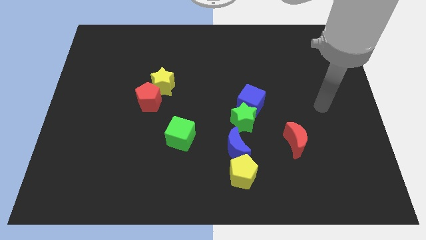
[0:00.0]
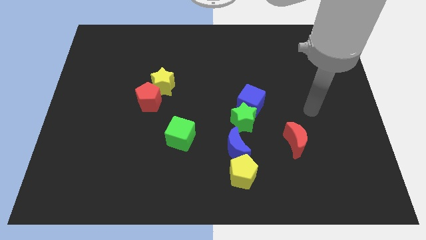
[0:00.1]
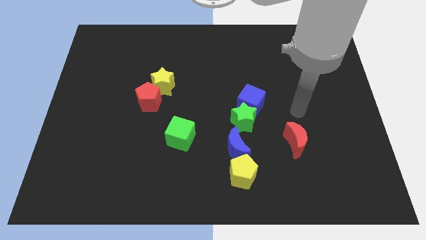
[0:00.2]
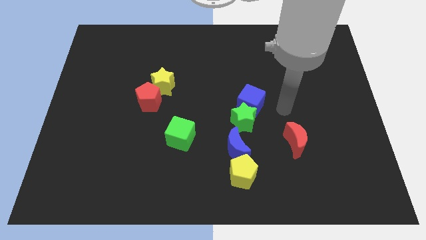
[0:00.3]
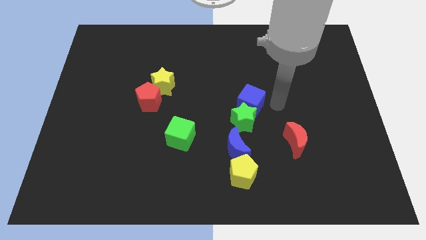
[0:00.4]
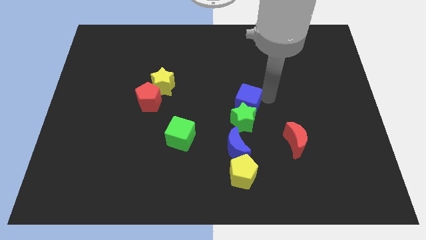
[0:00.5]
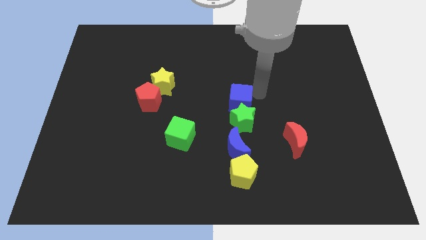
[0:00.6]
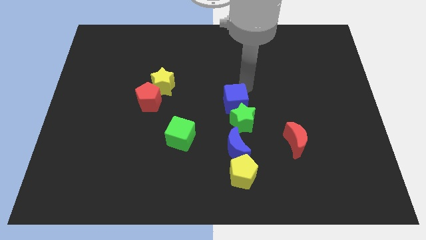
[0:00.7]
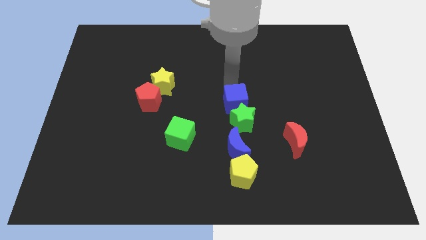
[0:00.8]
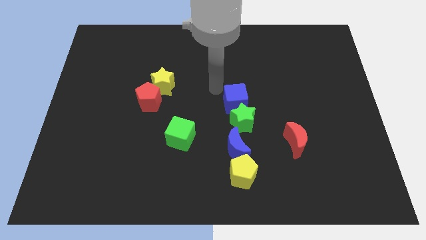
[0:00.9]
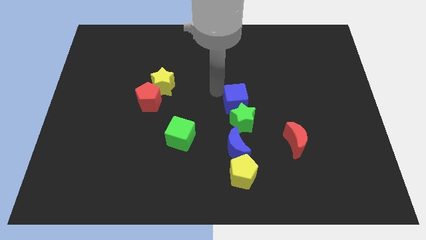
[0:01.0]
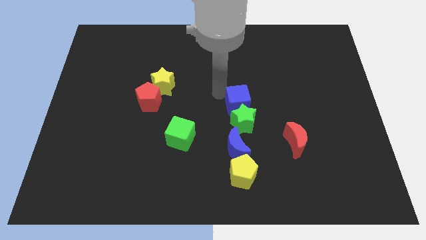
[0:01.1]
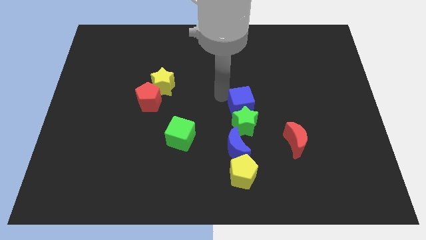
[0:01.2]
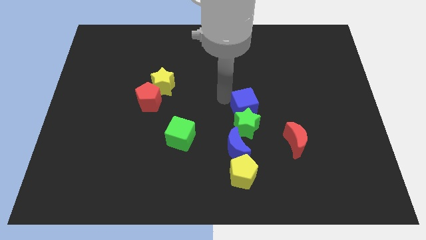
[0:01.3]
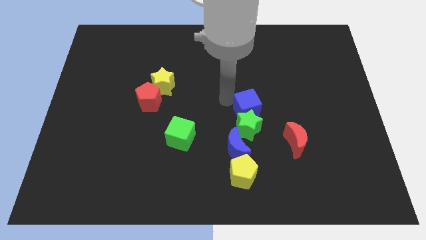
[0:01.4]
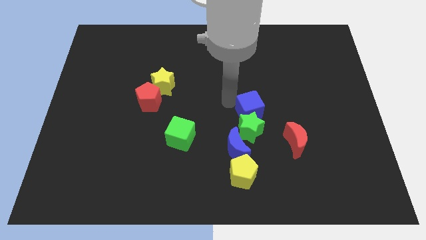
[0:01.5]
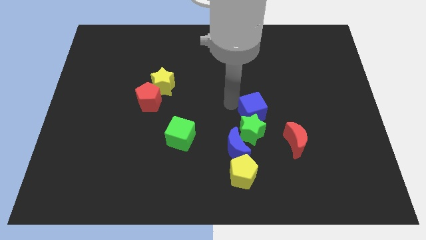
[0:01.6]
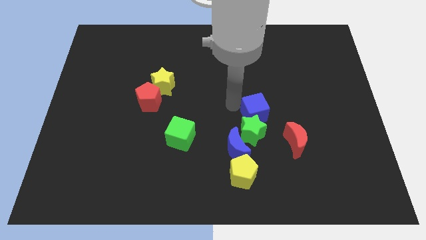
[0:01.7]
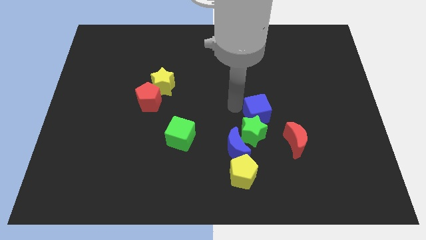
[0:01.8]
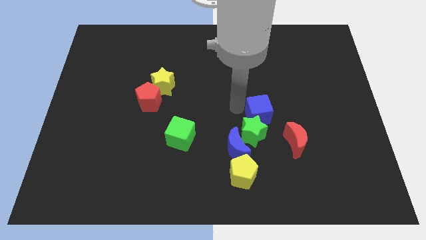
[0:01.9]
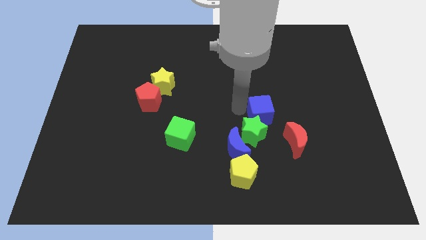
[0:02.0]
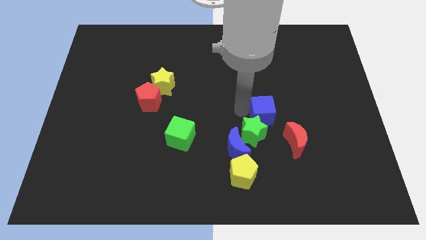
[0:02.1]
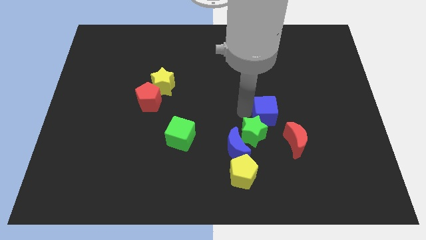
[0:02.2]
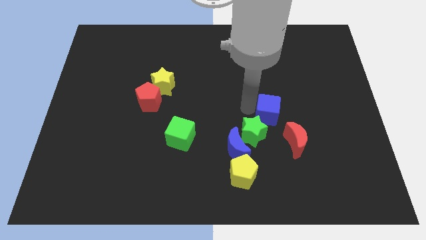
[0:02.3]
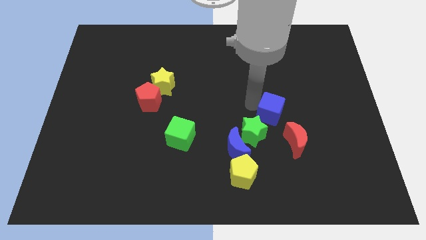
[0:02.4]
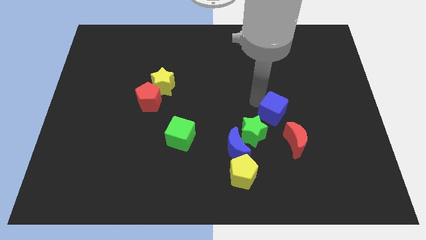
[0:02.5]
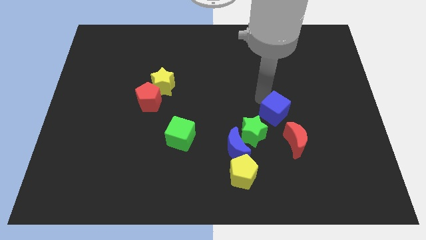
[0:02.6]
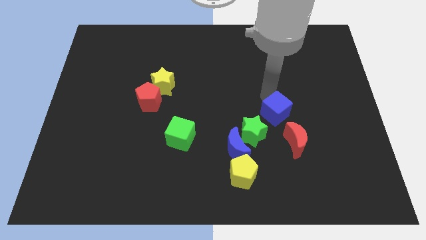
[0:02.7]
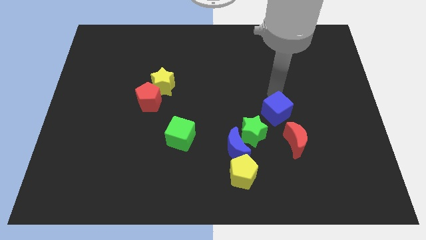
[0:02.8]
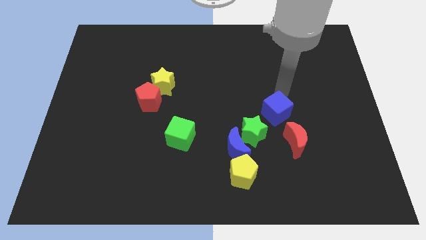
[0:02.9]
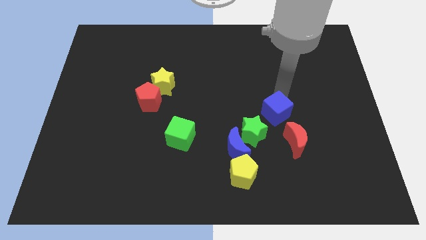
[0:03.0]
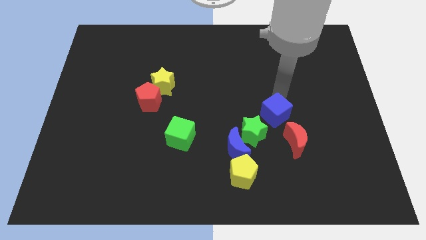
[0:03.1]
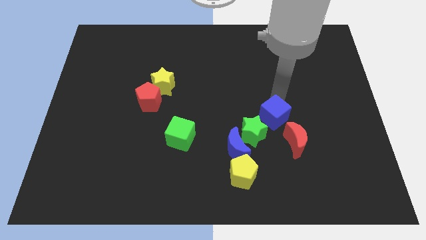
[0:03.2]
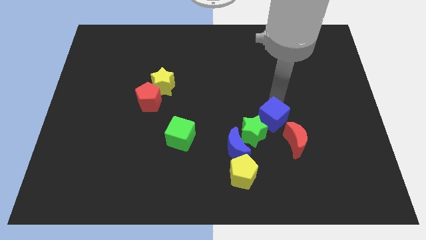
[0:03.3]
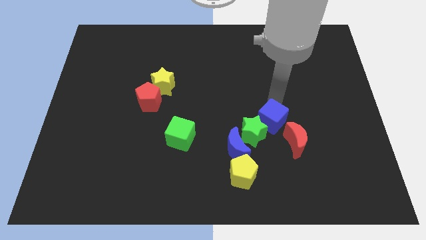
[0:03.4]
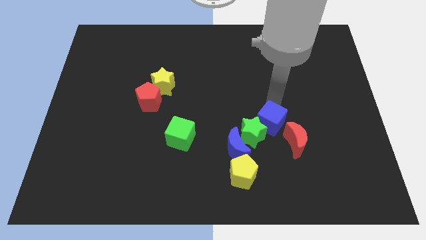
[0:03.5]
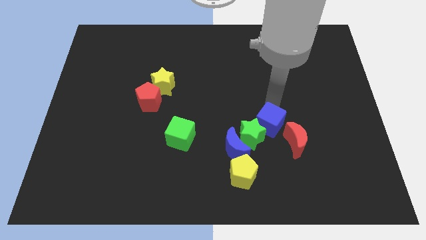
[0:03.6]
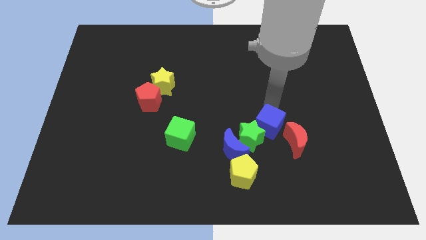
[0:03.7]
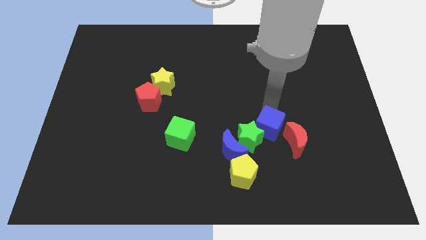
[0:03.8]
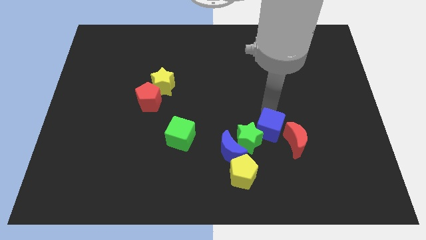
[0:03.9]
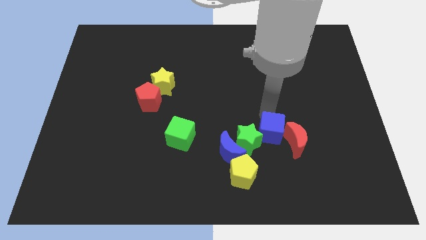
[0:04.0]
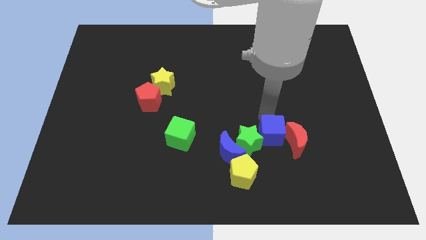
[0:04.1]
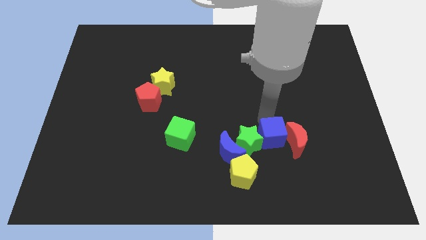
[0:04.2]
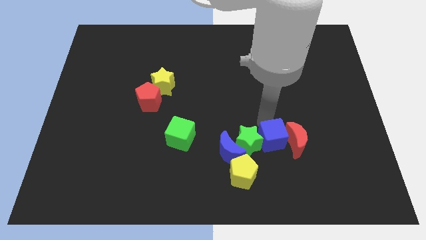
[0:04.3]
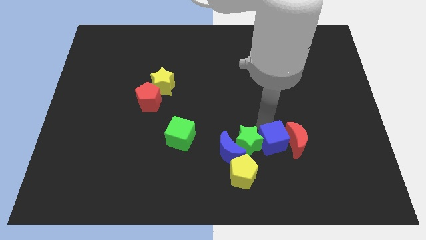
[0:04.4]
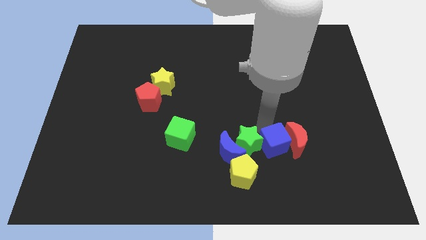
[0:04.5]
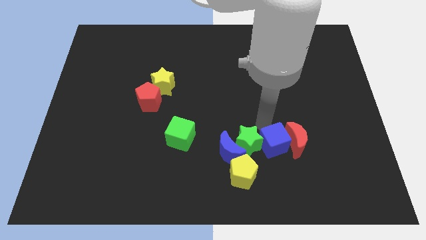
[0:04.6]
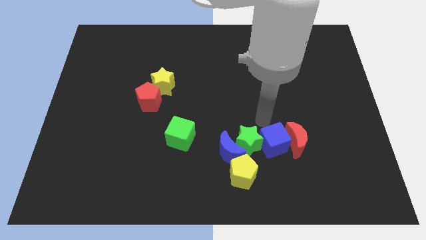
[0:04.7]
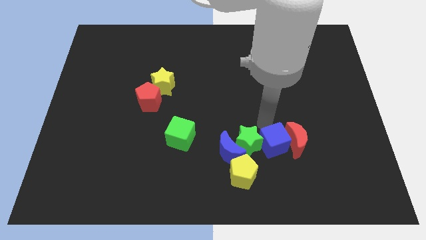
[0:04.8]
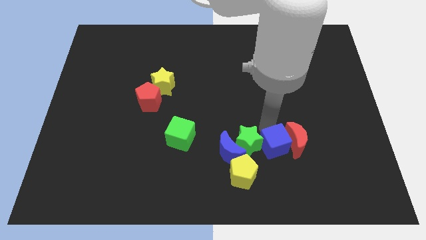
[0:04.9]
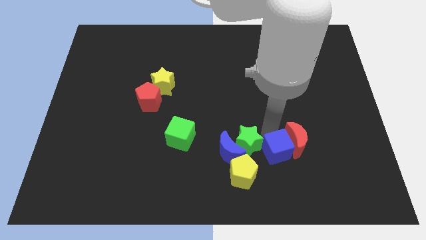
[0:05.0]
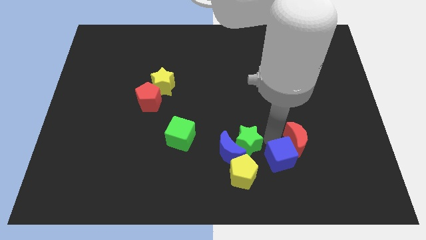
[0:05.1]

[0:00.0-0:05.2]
slide the blue cube to the right side of the yellow pentagon

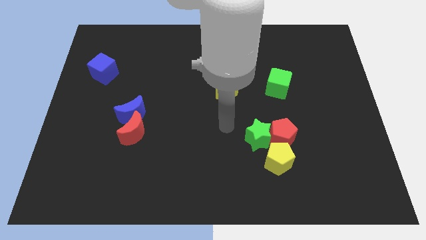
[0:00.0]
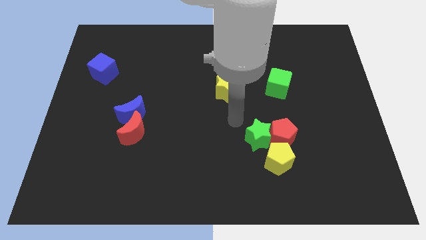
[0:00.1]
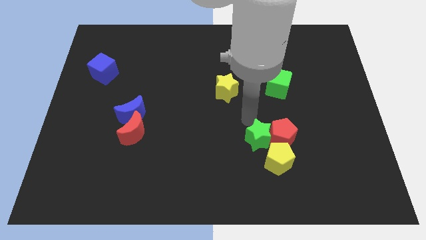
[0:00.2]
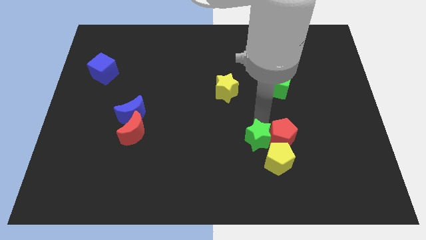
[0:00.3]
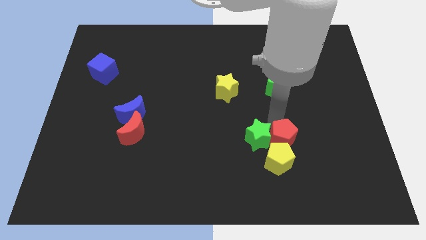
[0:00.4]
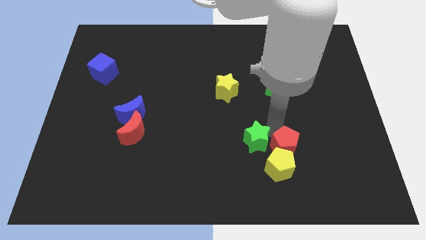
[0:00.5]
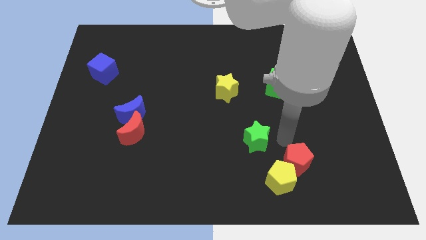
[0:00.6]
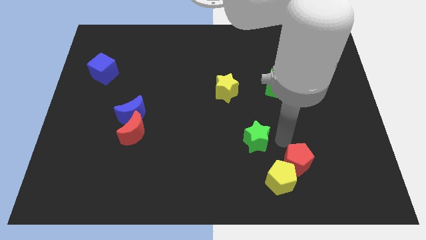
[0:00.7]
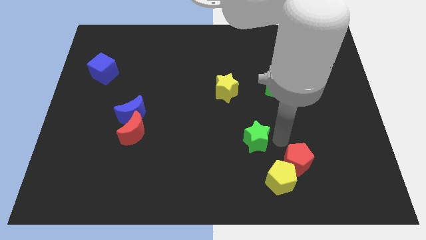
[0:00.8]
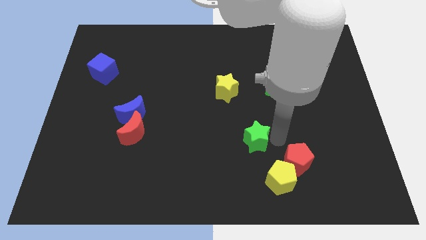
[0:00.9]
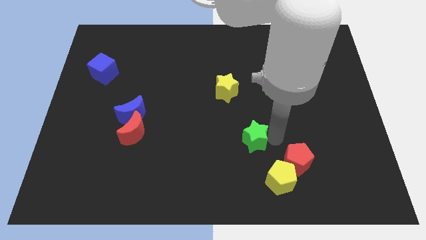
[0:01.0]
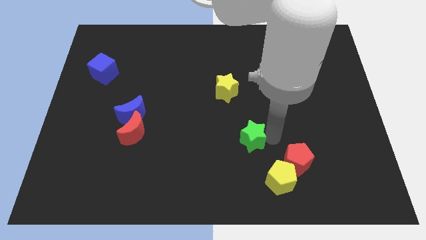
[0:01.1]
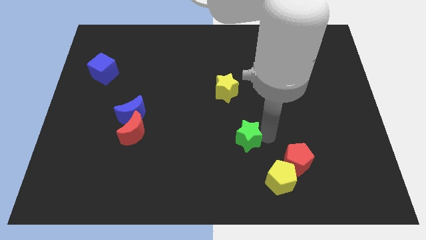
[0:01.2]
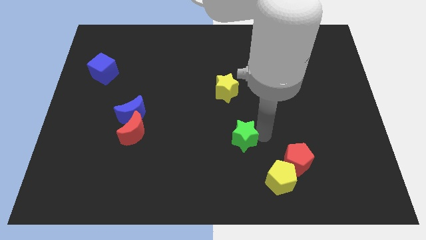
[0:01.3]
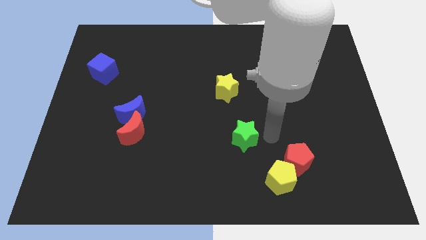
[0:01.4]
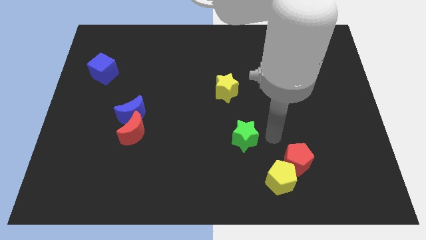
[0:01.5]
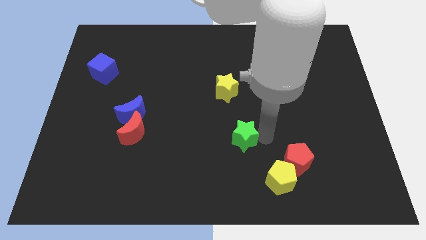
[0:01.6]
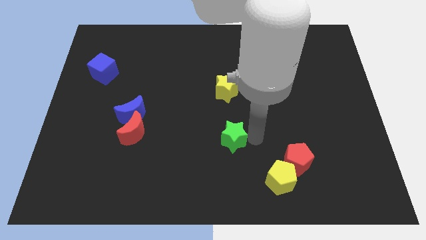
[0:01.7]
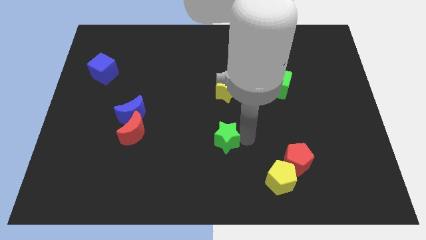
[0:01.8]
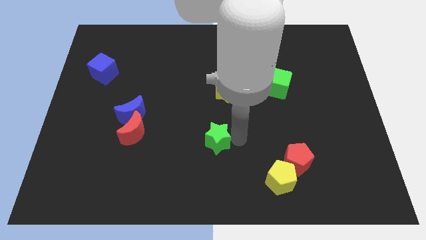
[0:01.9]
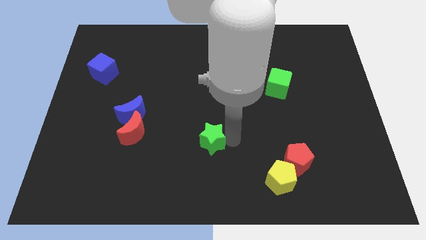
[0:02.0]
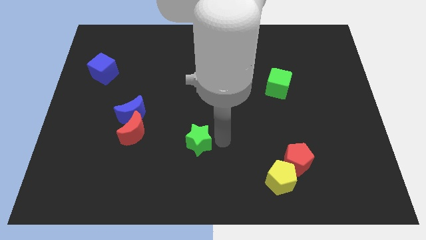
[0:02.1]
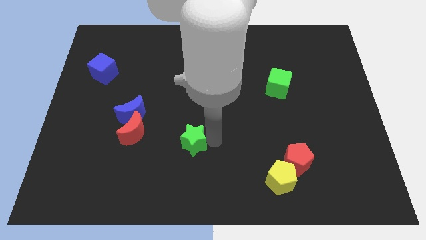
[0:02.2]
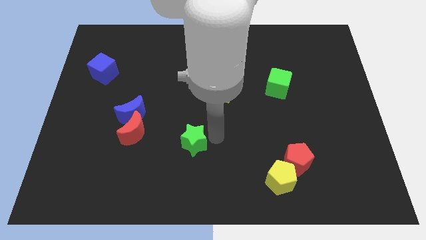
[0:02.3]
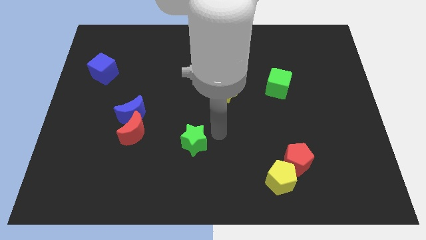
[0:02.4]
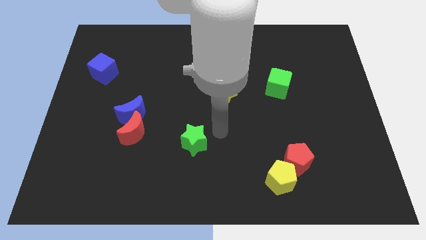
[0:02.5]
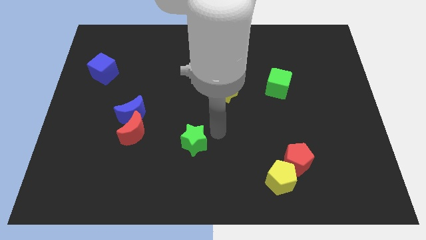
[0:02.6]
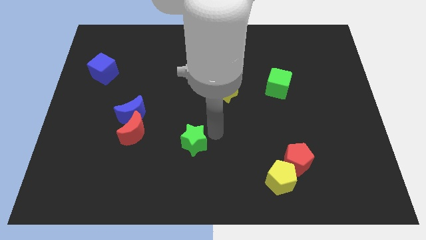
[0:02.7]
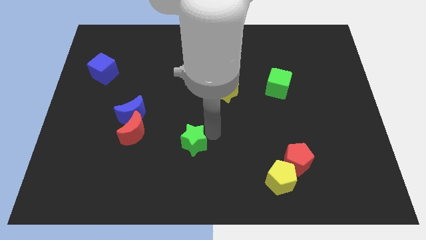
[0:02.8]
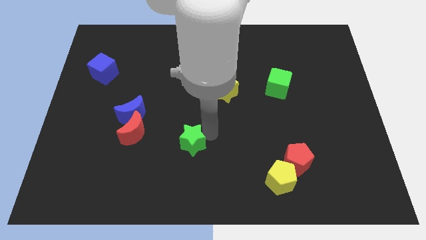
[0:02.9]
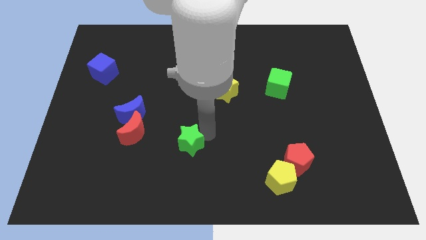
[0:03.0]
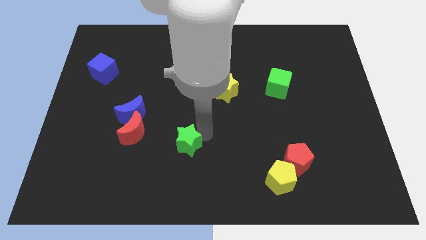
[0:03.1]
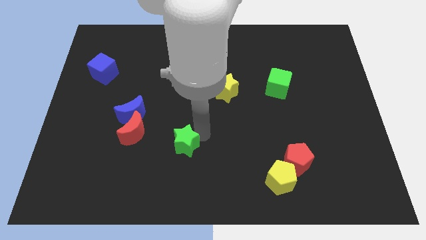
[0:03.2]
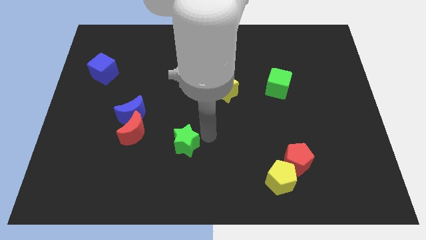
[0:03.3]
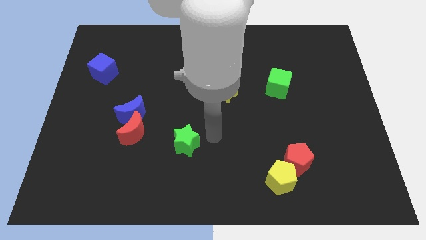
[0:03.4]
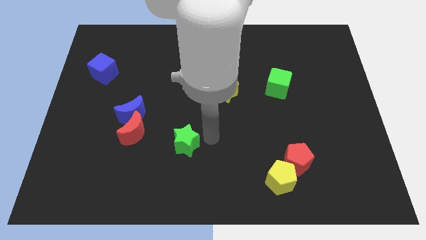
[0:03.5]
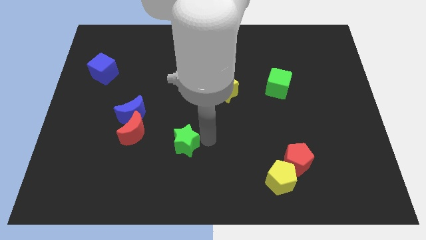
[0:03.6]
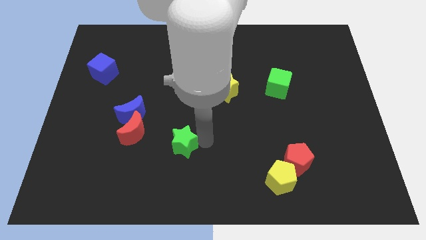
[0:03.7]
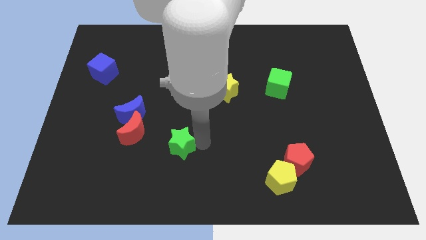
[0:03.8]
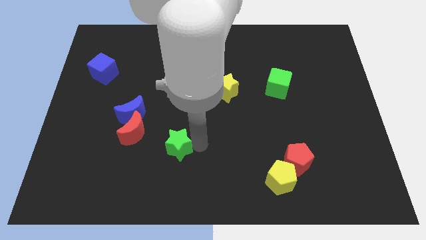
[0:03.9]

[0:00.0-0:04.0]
push the green star to the bottom right of the red moon
